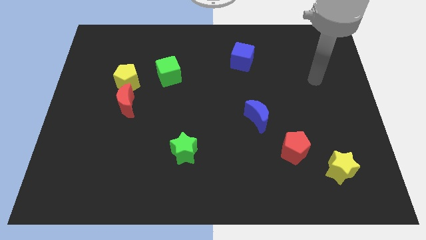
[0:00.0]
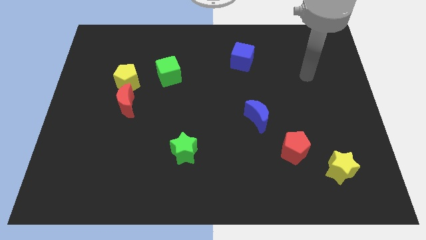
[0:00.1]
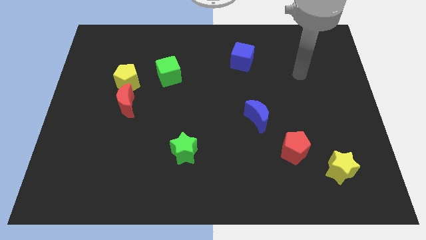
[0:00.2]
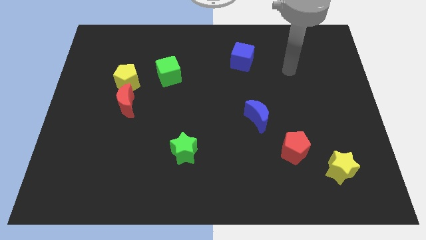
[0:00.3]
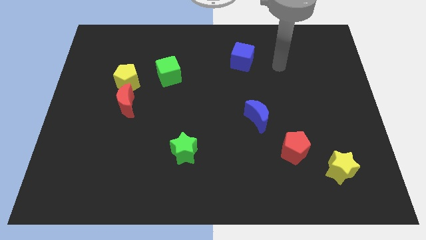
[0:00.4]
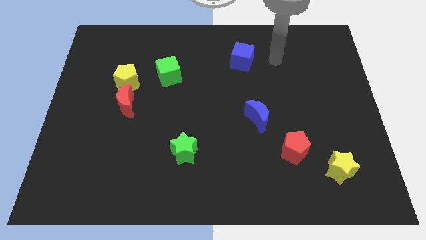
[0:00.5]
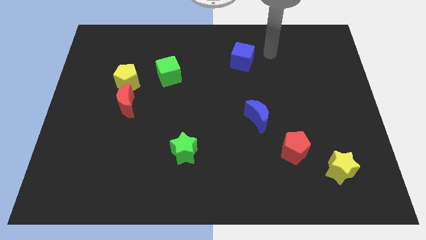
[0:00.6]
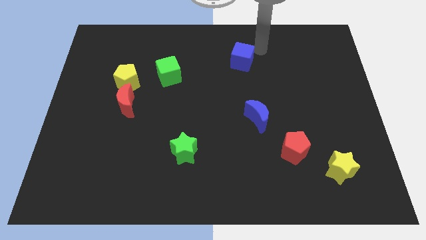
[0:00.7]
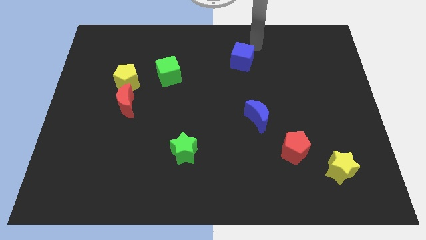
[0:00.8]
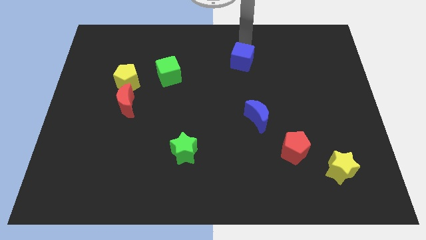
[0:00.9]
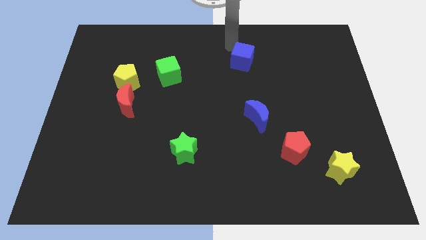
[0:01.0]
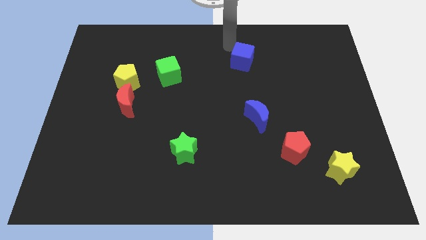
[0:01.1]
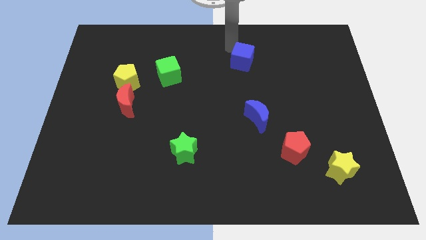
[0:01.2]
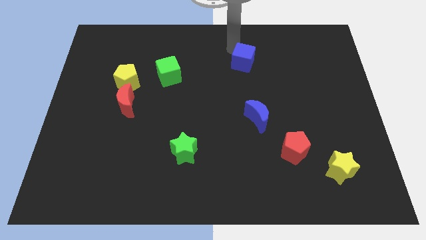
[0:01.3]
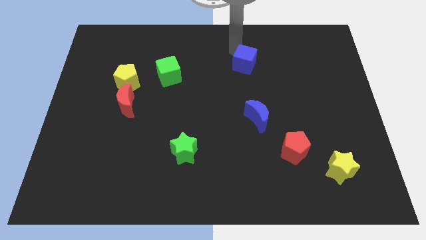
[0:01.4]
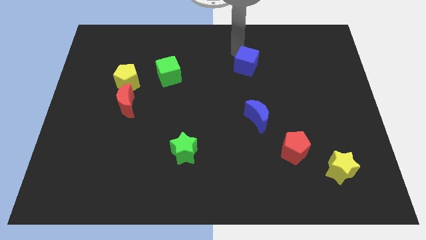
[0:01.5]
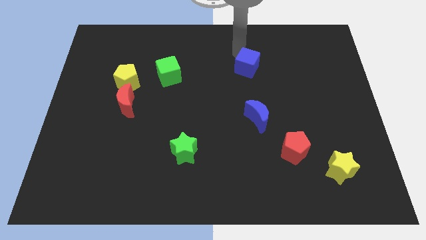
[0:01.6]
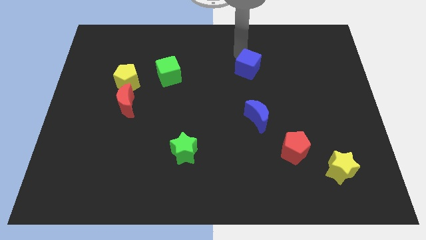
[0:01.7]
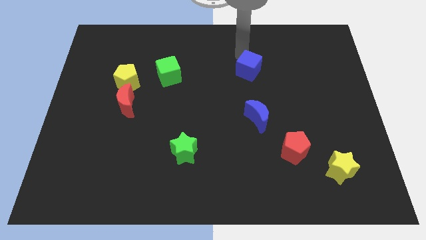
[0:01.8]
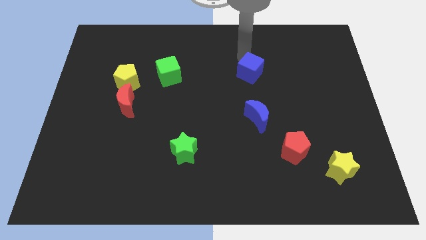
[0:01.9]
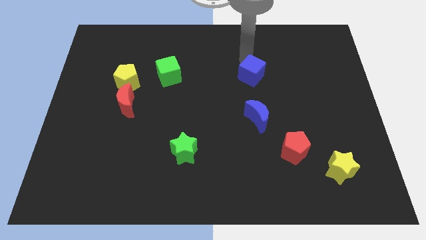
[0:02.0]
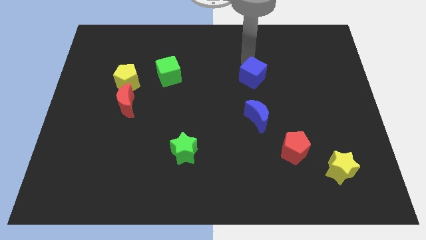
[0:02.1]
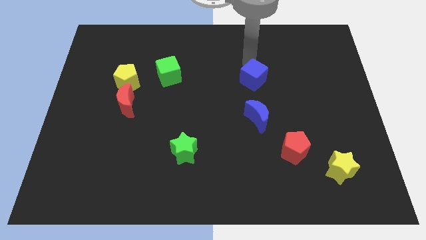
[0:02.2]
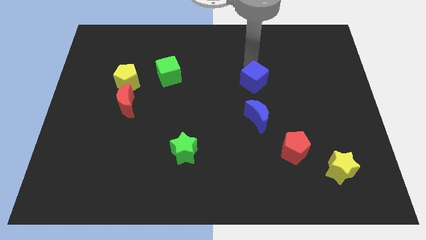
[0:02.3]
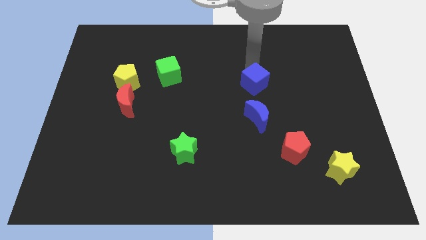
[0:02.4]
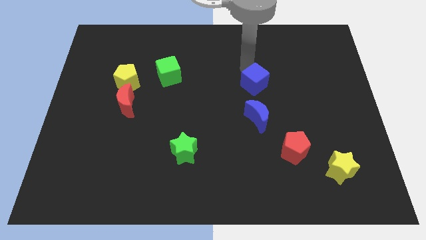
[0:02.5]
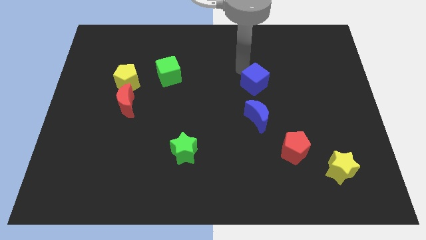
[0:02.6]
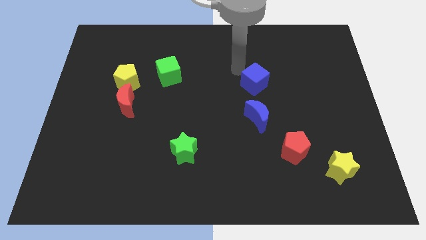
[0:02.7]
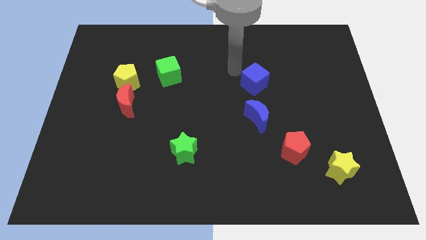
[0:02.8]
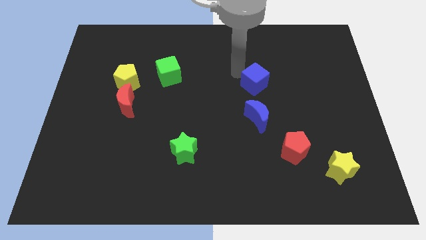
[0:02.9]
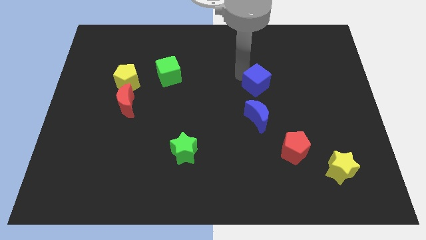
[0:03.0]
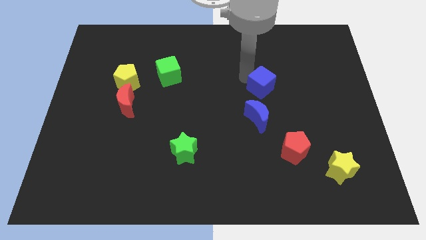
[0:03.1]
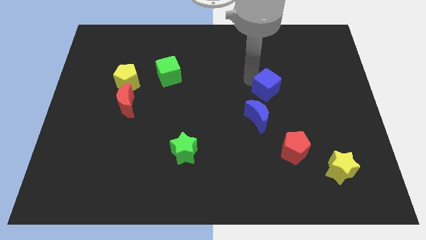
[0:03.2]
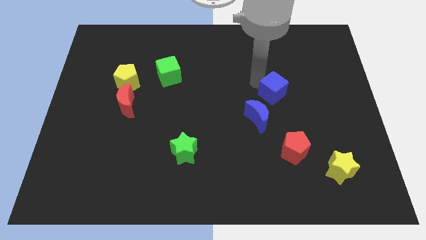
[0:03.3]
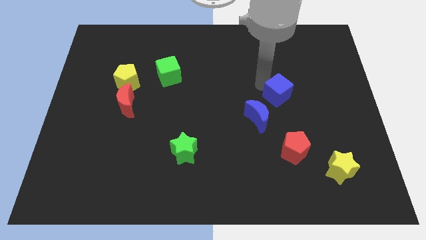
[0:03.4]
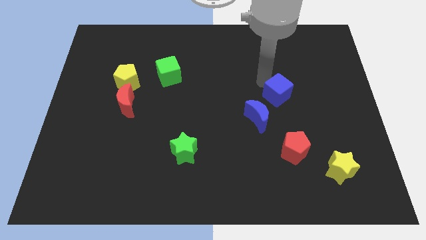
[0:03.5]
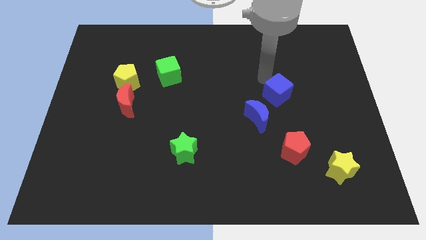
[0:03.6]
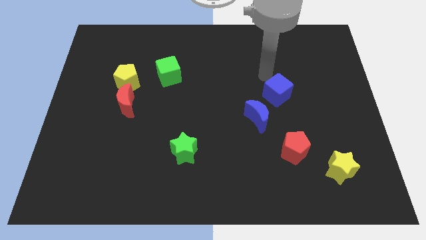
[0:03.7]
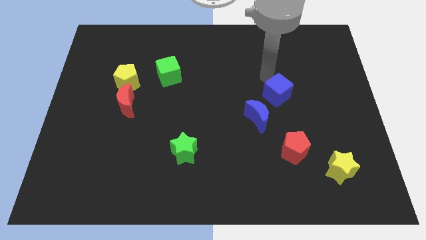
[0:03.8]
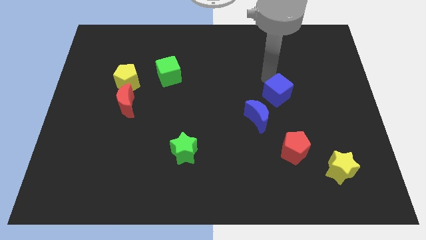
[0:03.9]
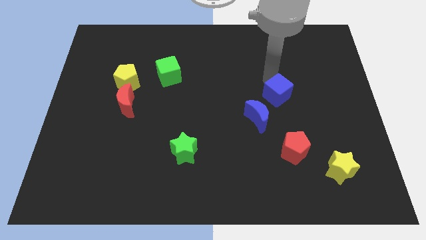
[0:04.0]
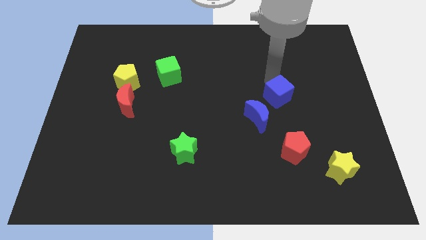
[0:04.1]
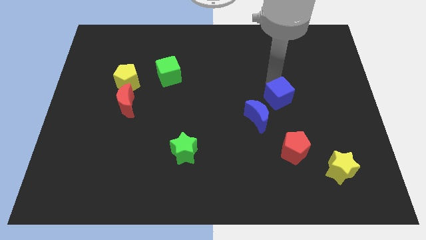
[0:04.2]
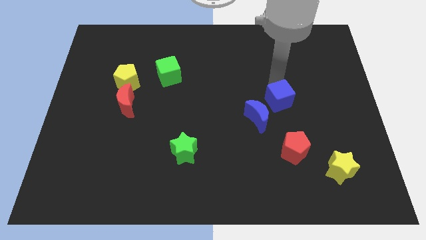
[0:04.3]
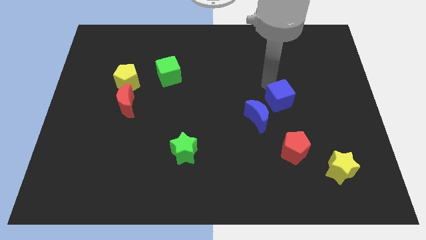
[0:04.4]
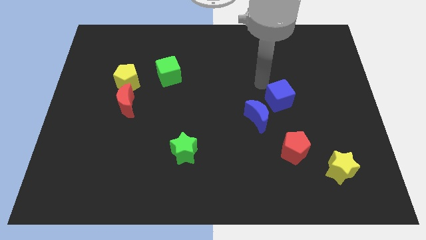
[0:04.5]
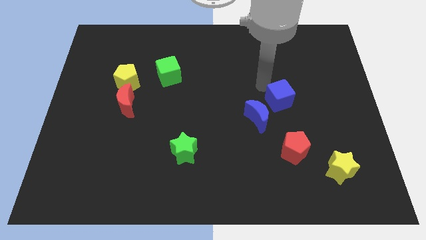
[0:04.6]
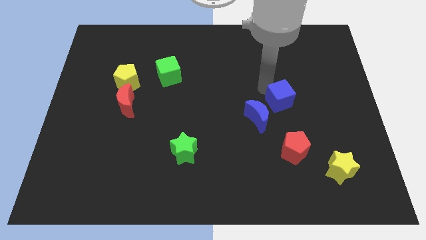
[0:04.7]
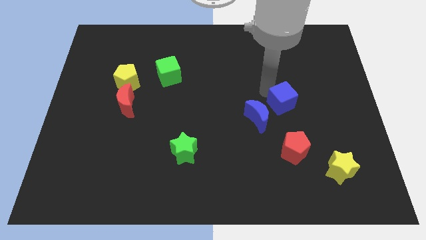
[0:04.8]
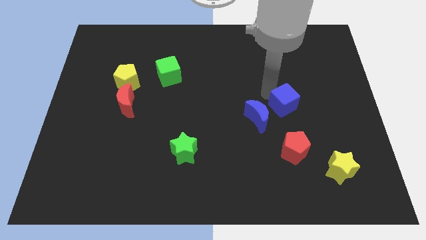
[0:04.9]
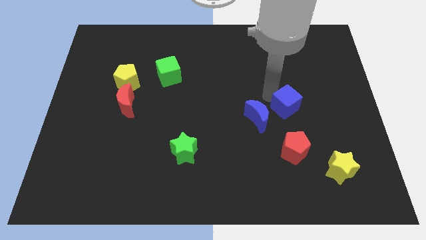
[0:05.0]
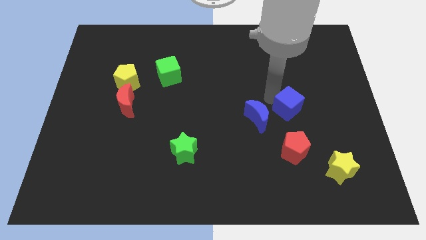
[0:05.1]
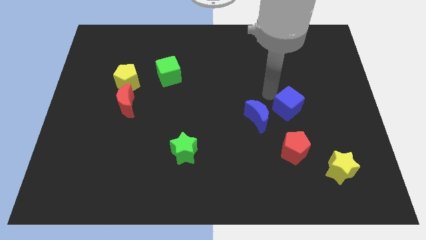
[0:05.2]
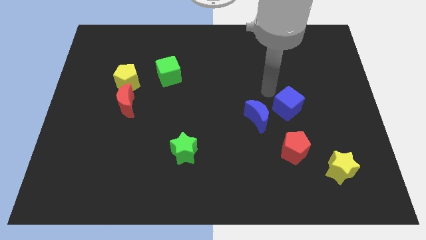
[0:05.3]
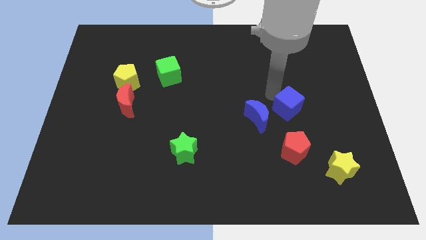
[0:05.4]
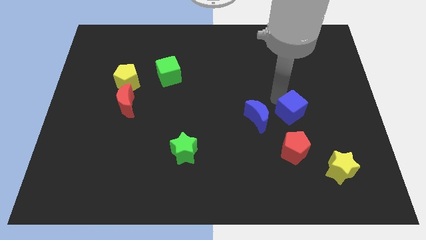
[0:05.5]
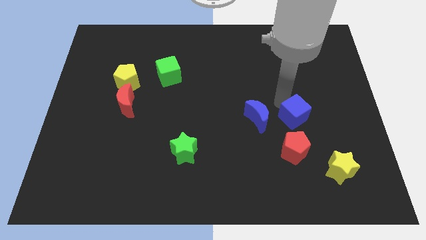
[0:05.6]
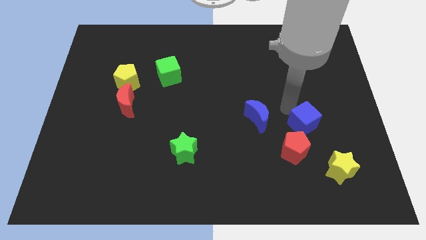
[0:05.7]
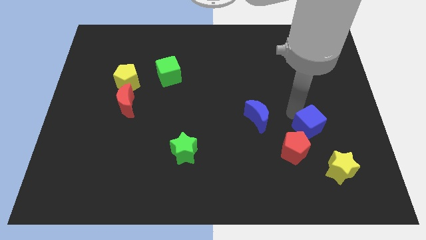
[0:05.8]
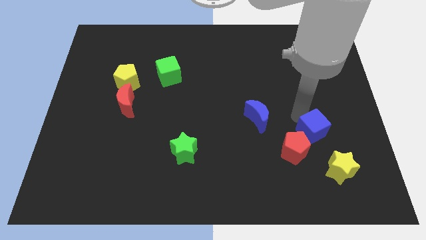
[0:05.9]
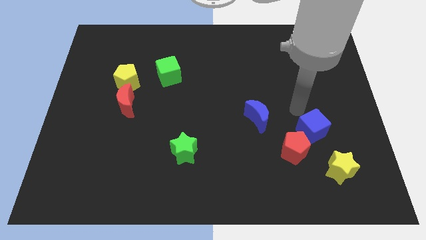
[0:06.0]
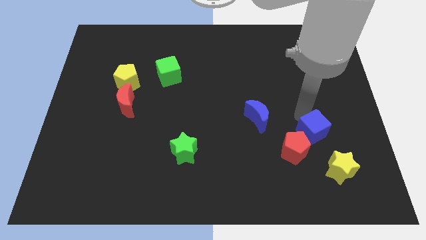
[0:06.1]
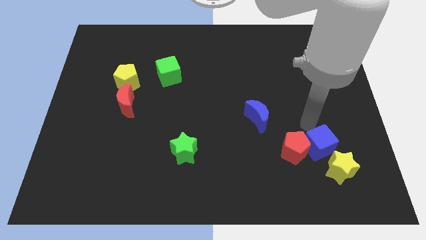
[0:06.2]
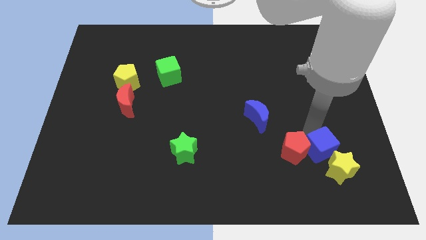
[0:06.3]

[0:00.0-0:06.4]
push the blue cube towards the yellow star
